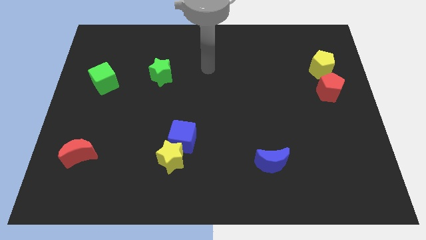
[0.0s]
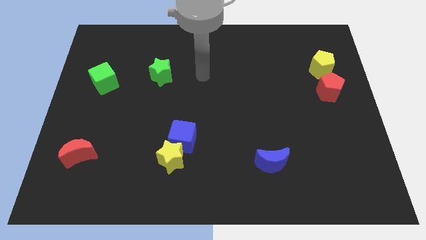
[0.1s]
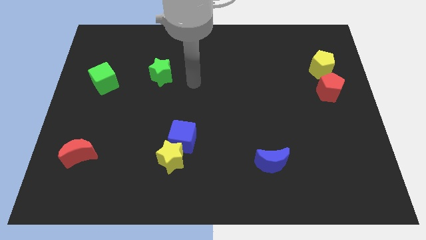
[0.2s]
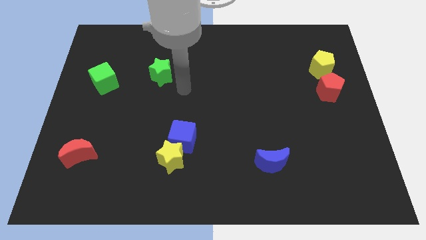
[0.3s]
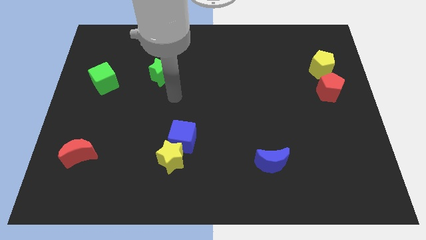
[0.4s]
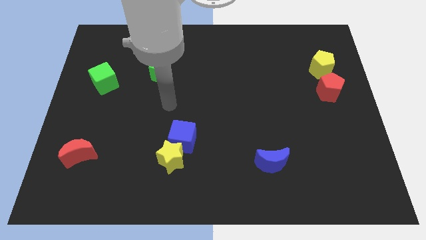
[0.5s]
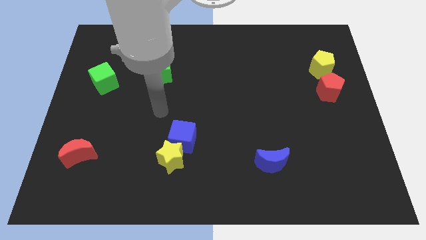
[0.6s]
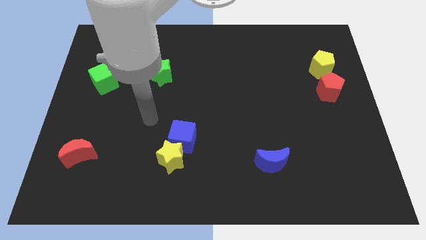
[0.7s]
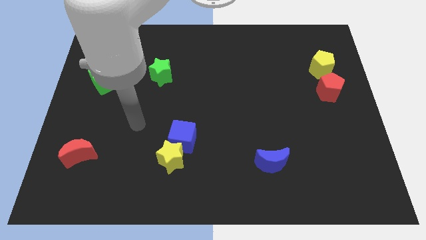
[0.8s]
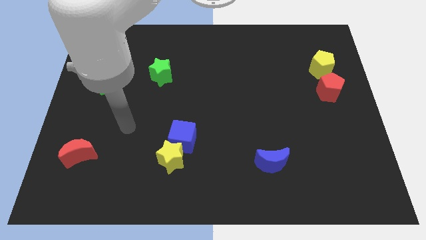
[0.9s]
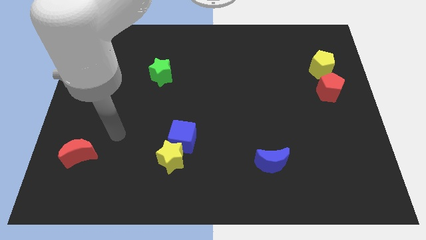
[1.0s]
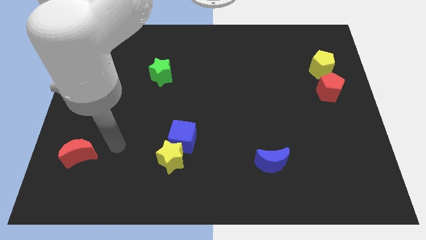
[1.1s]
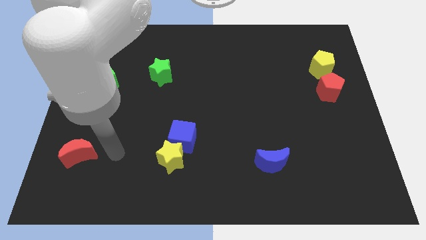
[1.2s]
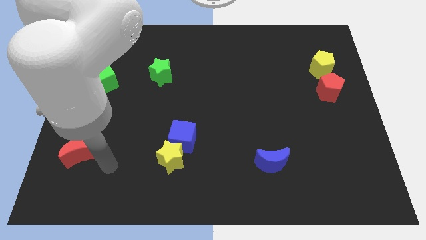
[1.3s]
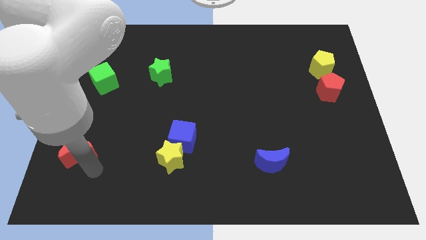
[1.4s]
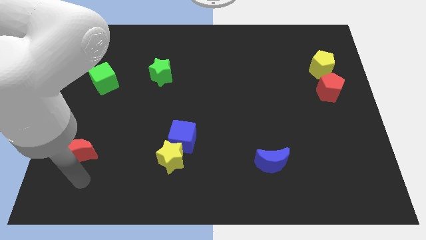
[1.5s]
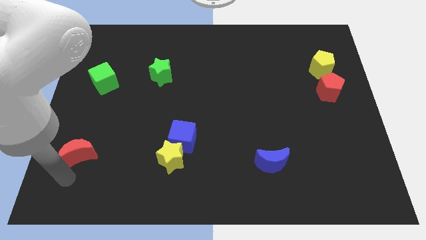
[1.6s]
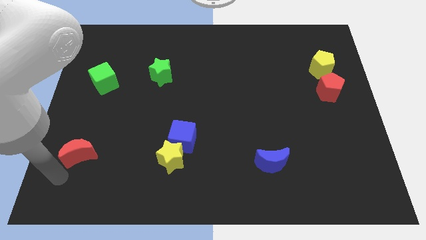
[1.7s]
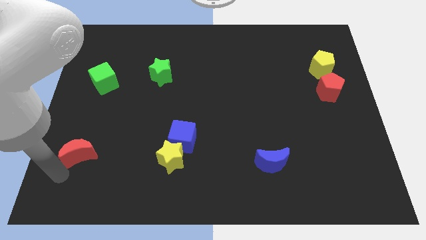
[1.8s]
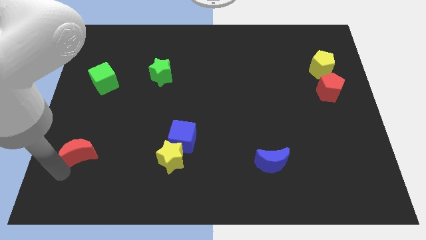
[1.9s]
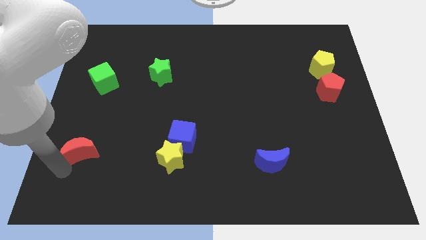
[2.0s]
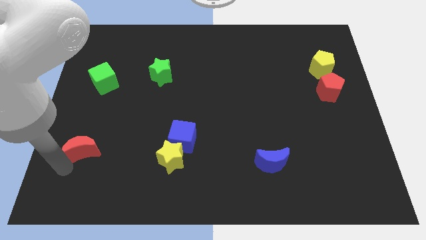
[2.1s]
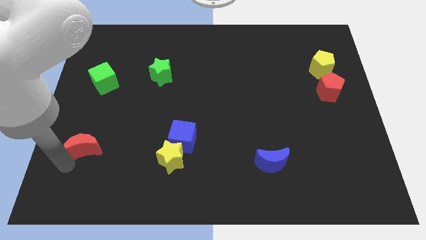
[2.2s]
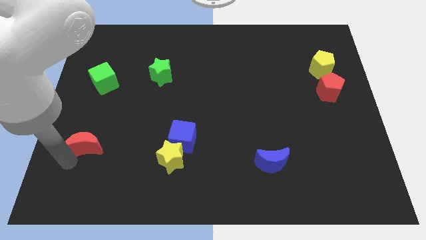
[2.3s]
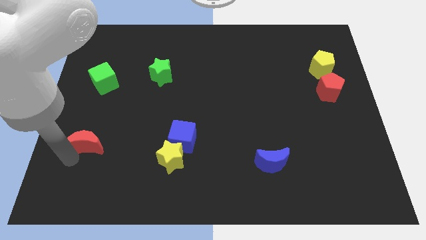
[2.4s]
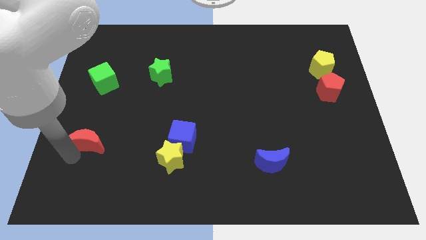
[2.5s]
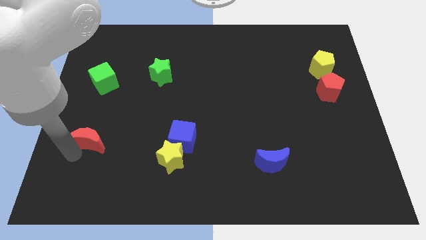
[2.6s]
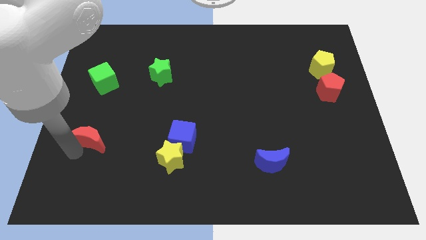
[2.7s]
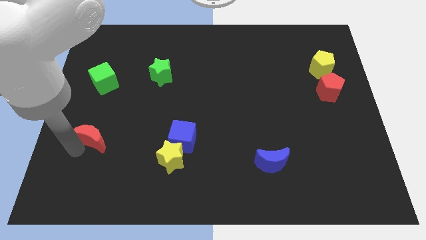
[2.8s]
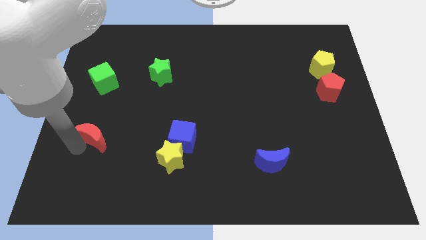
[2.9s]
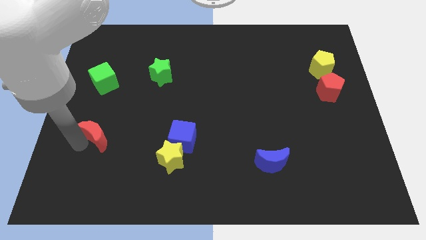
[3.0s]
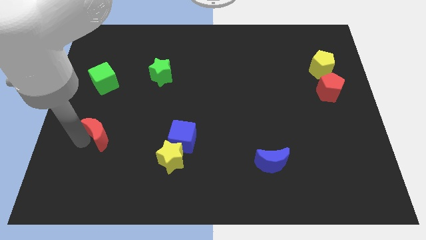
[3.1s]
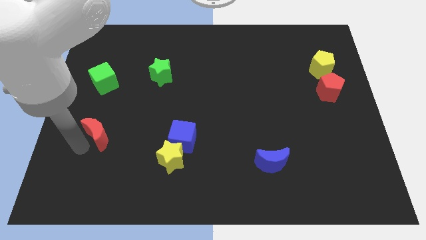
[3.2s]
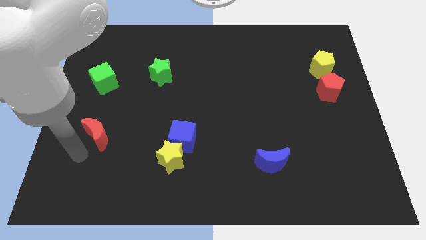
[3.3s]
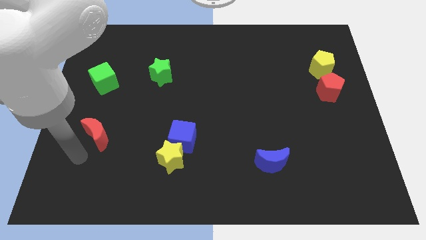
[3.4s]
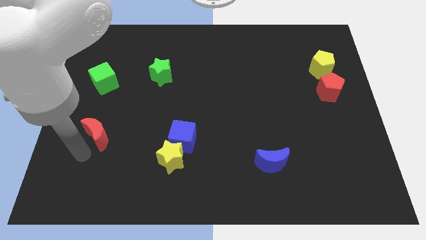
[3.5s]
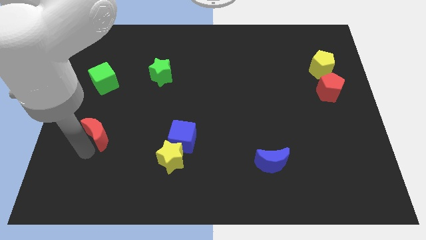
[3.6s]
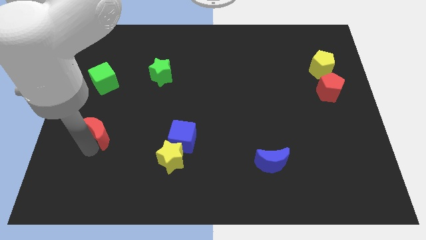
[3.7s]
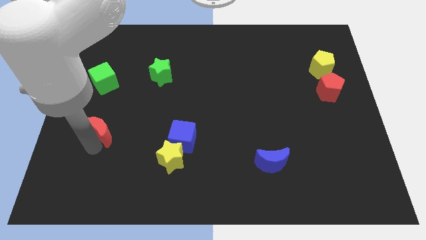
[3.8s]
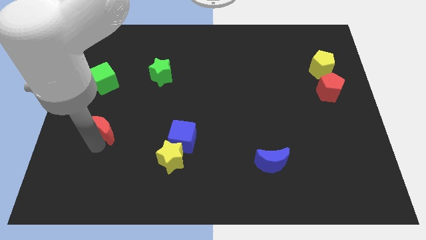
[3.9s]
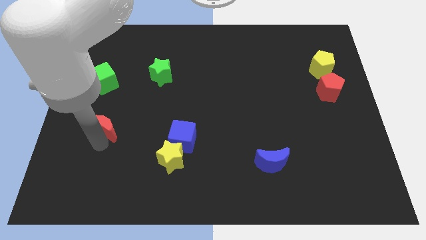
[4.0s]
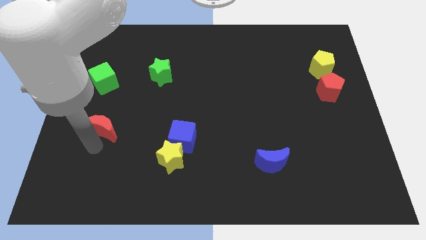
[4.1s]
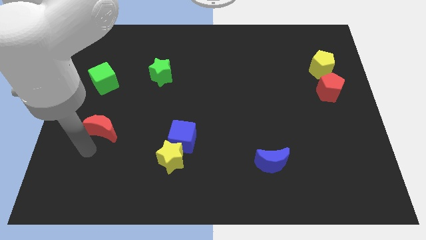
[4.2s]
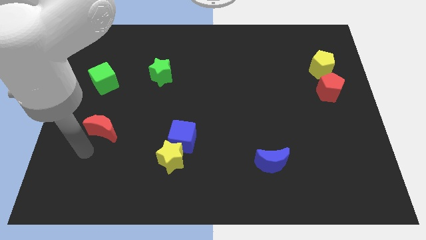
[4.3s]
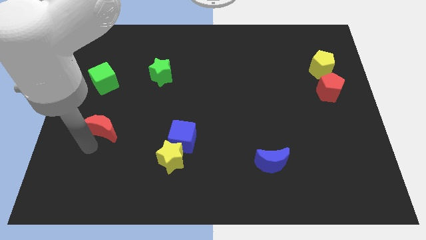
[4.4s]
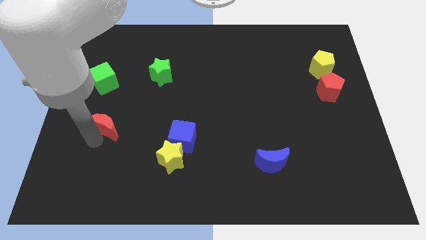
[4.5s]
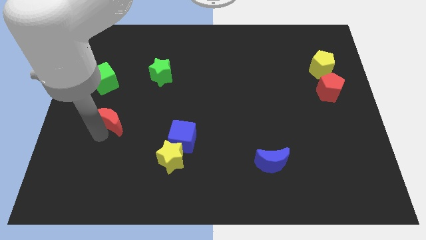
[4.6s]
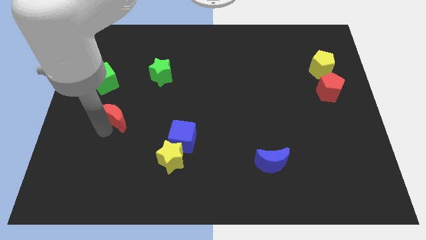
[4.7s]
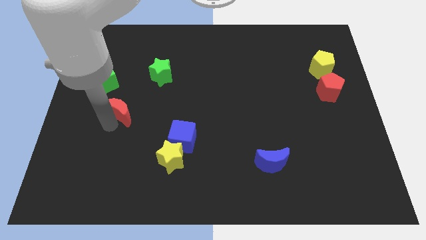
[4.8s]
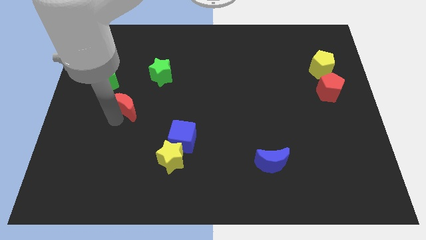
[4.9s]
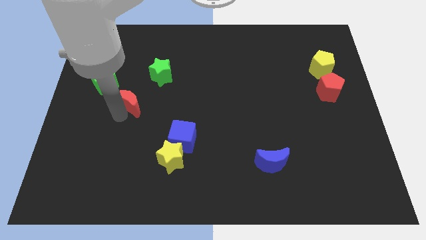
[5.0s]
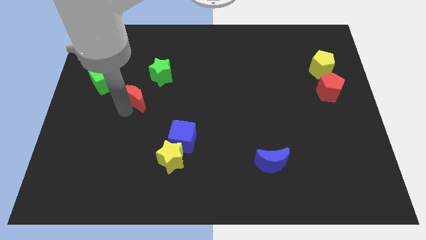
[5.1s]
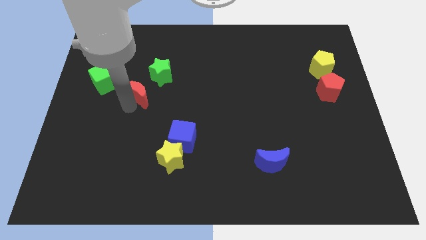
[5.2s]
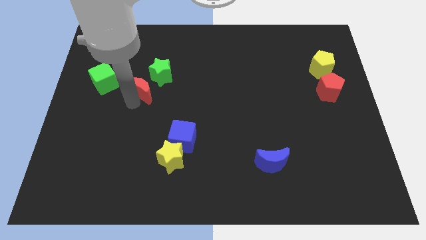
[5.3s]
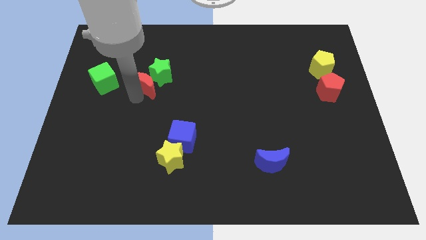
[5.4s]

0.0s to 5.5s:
push the red moon next to the green star

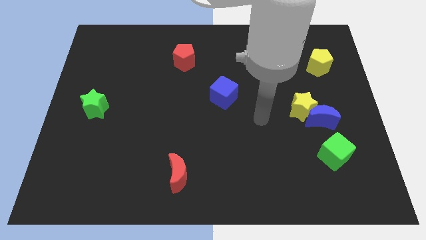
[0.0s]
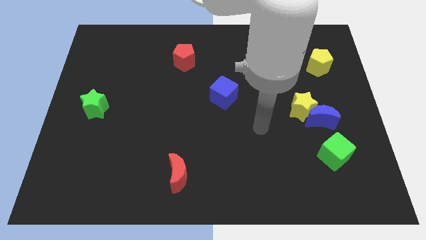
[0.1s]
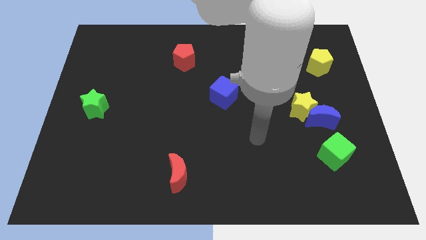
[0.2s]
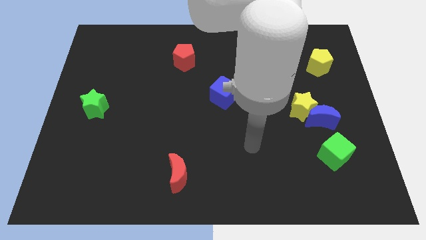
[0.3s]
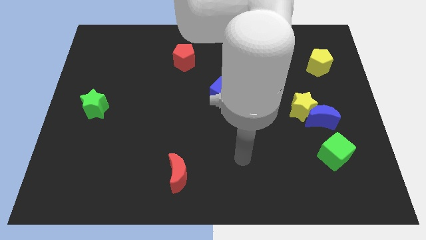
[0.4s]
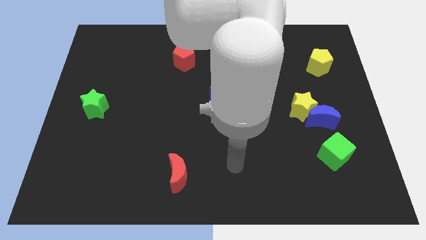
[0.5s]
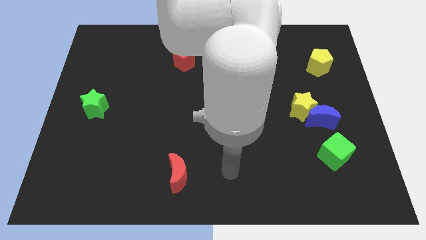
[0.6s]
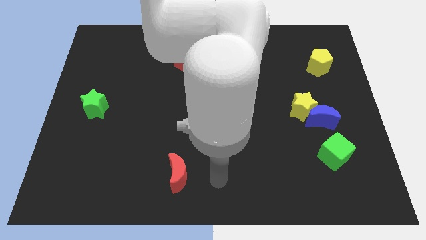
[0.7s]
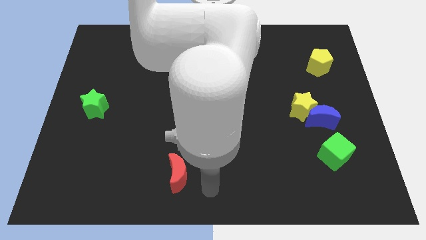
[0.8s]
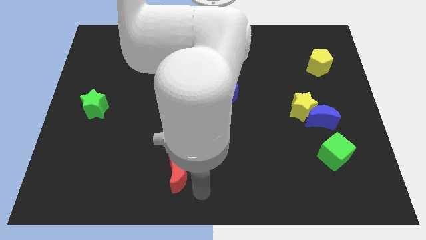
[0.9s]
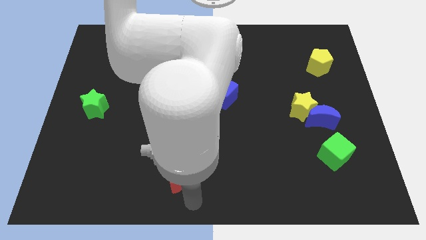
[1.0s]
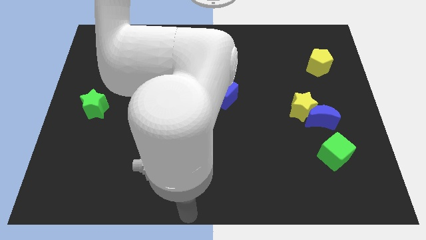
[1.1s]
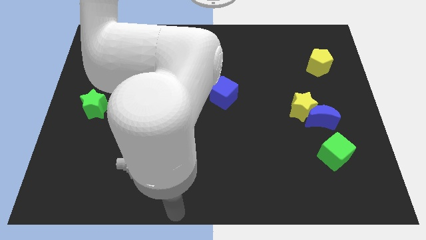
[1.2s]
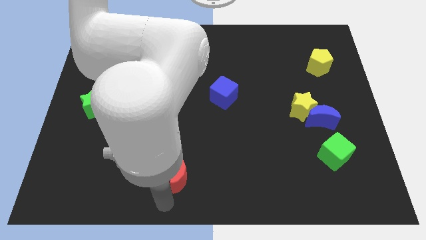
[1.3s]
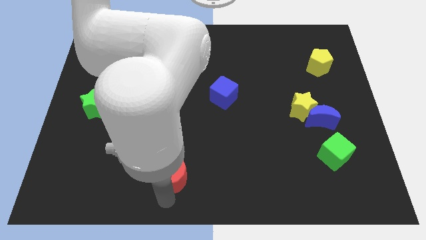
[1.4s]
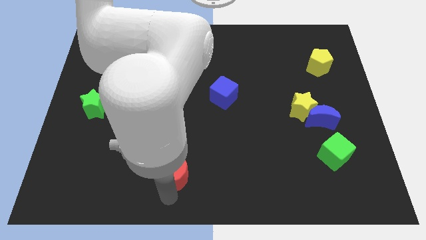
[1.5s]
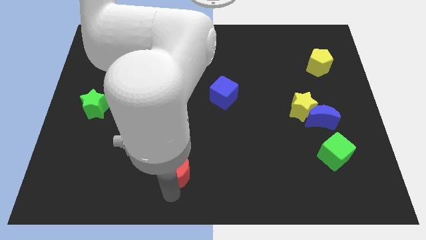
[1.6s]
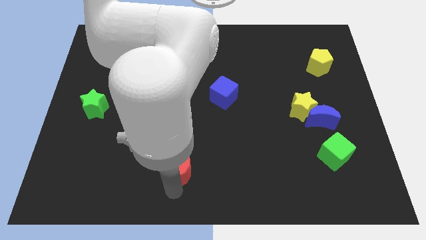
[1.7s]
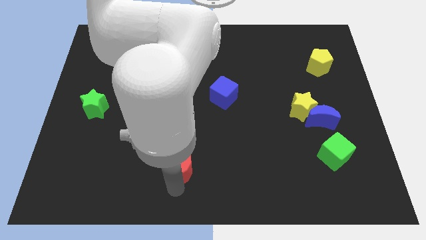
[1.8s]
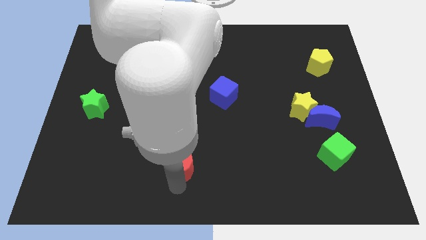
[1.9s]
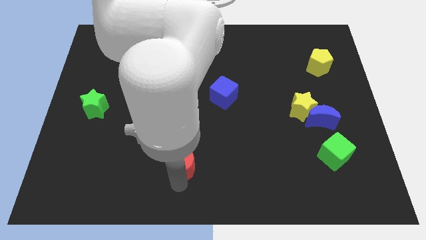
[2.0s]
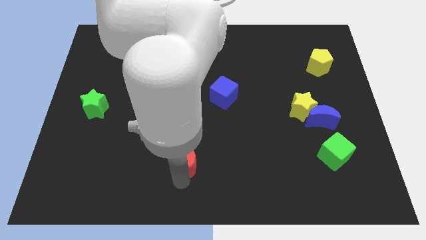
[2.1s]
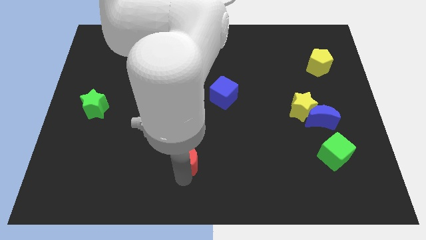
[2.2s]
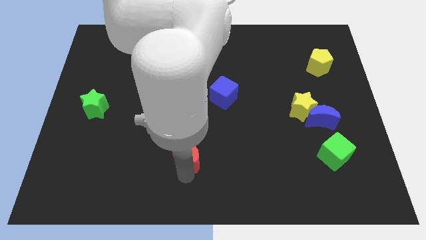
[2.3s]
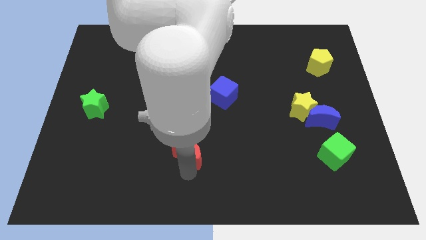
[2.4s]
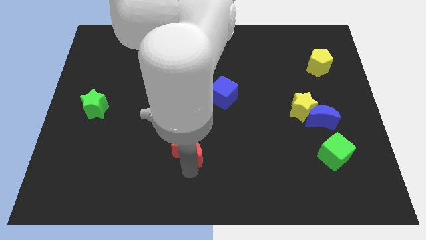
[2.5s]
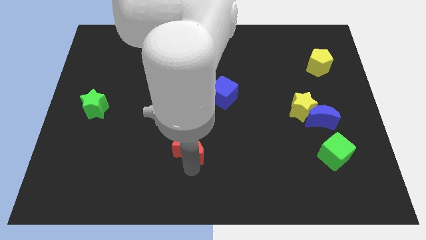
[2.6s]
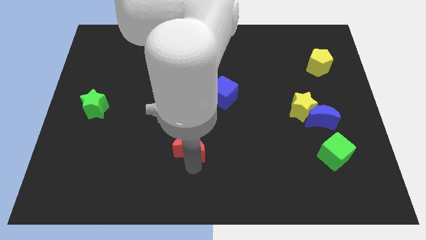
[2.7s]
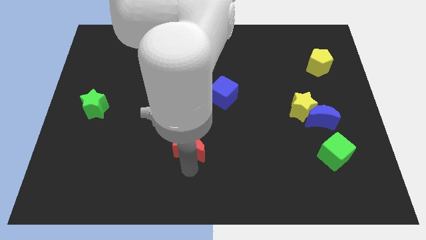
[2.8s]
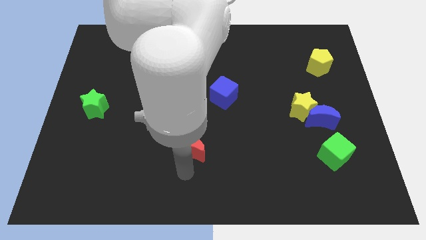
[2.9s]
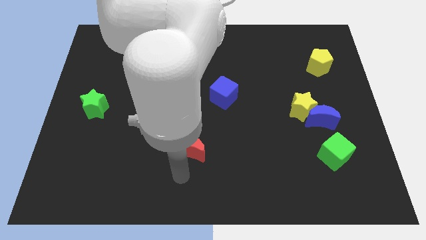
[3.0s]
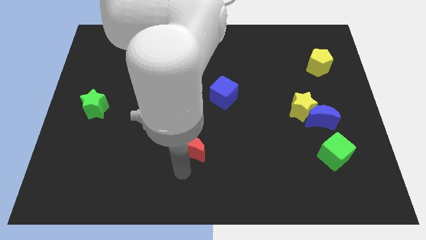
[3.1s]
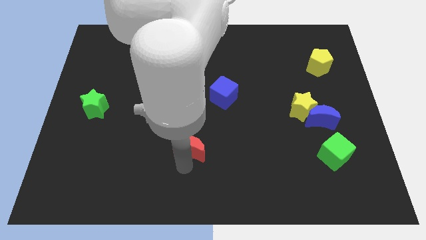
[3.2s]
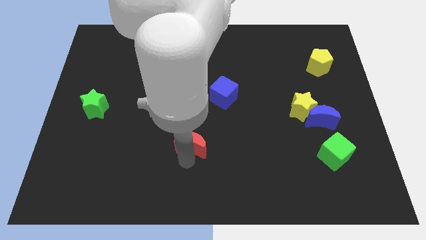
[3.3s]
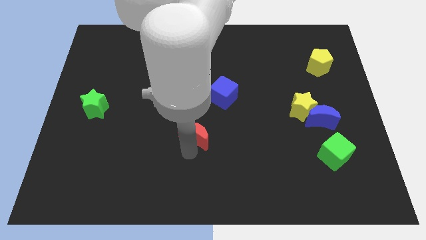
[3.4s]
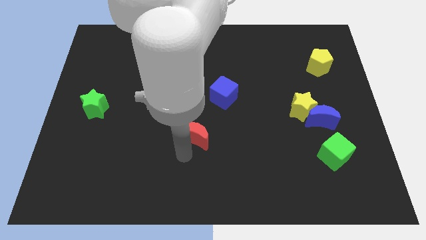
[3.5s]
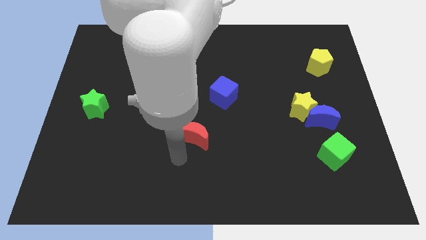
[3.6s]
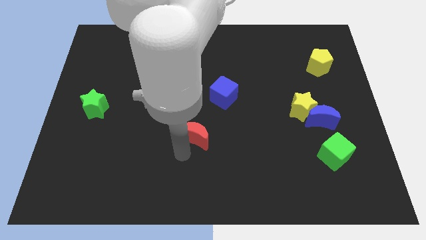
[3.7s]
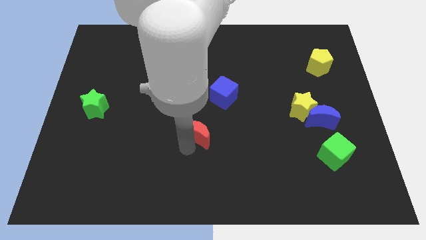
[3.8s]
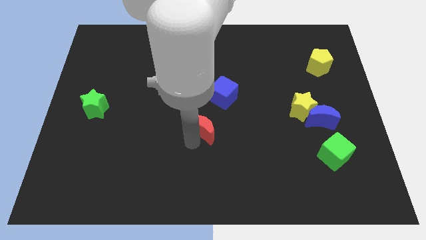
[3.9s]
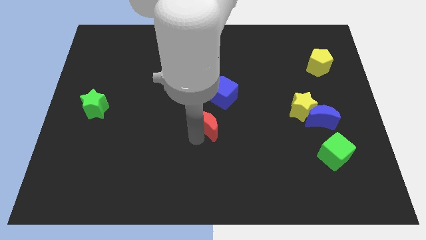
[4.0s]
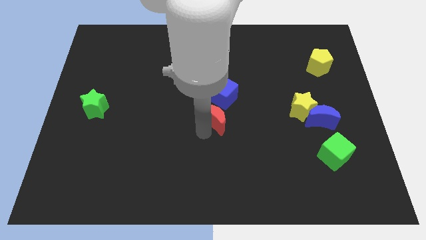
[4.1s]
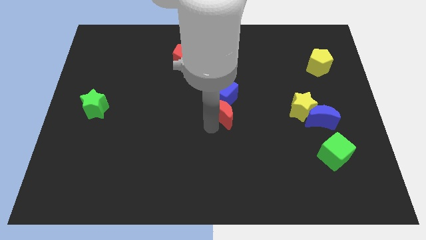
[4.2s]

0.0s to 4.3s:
put the red moon next to the blue cube
